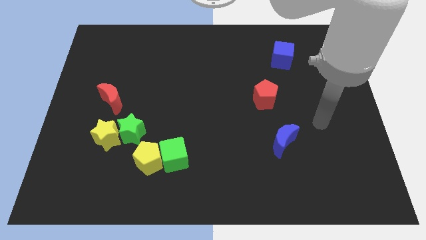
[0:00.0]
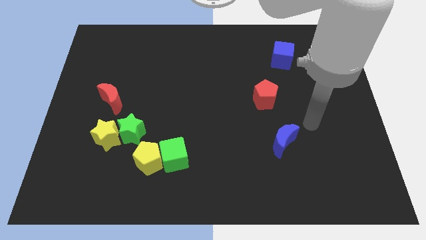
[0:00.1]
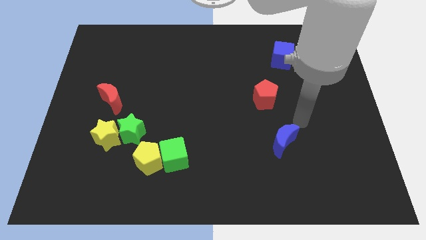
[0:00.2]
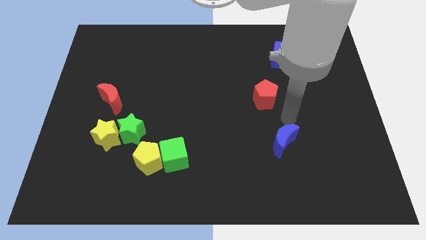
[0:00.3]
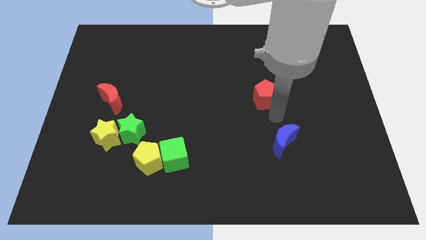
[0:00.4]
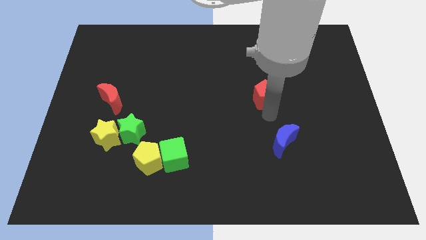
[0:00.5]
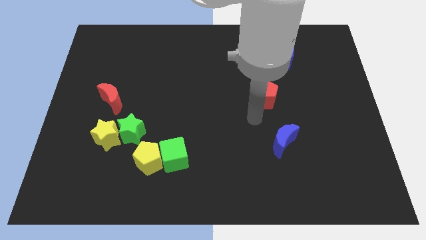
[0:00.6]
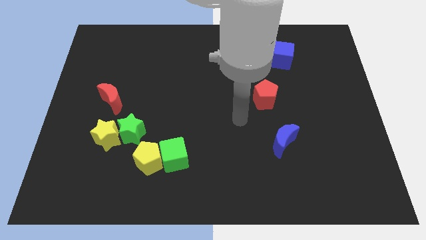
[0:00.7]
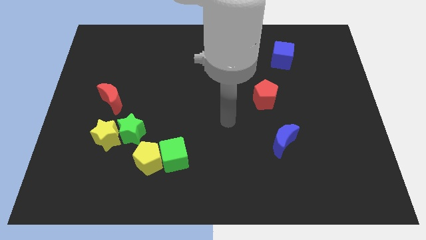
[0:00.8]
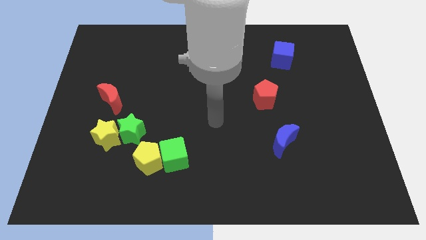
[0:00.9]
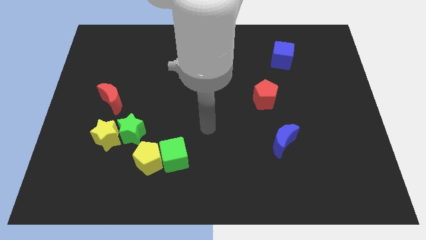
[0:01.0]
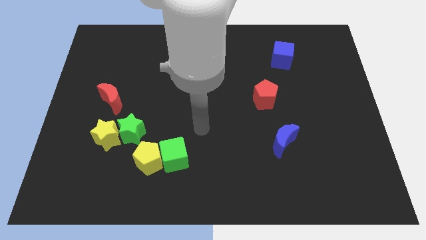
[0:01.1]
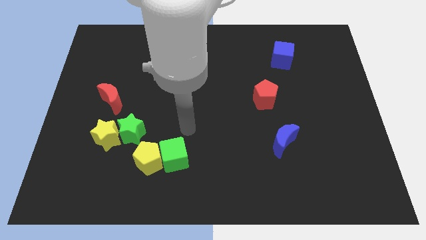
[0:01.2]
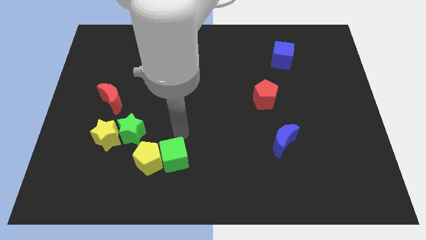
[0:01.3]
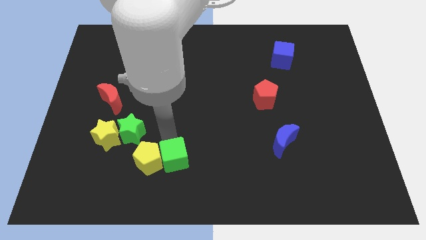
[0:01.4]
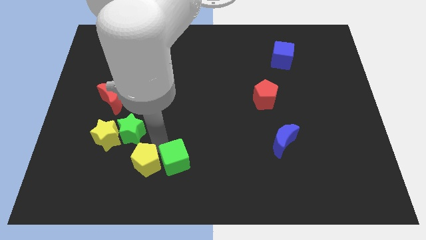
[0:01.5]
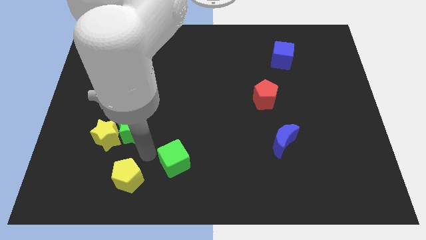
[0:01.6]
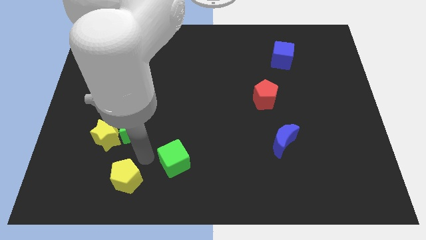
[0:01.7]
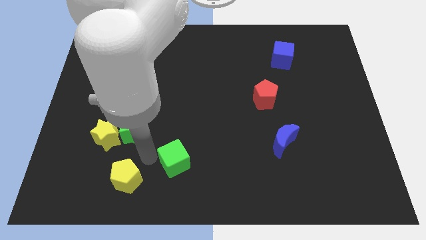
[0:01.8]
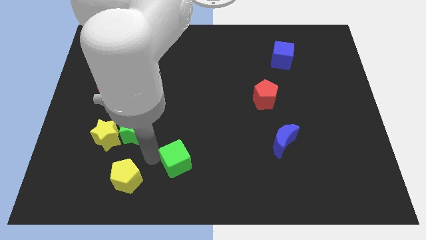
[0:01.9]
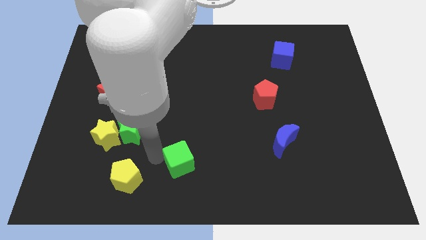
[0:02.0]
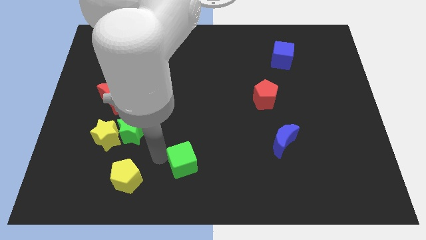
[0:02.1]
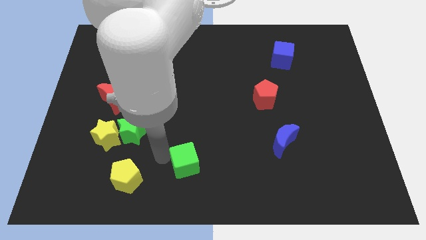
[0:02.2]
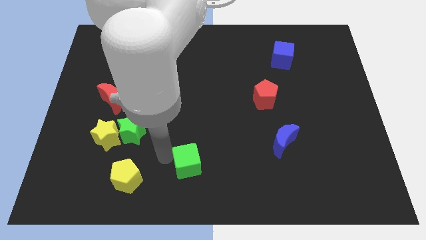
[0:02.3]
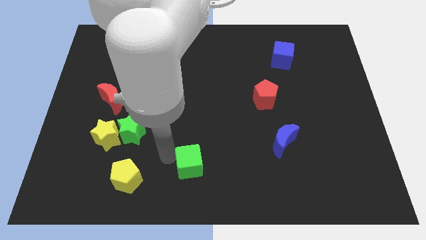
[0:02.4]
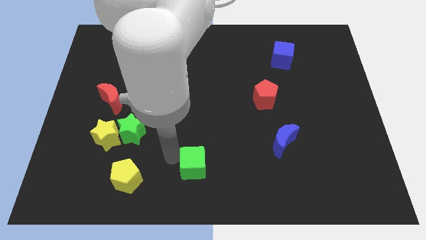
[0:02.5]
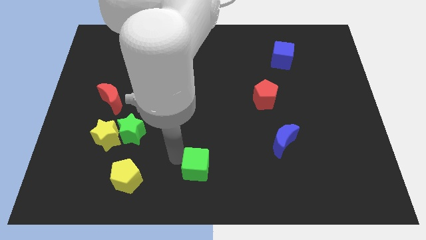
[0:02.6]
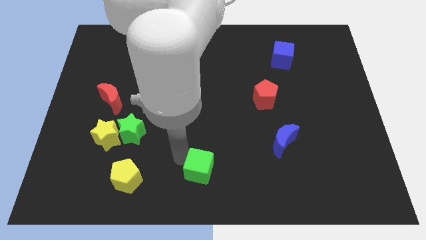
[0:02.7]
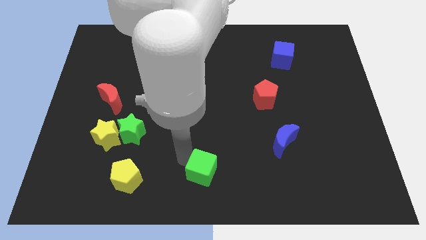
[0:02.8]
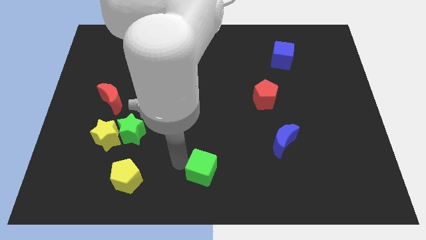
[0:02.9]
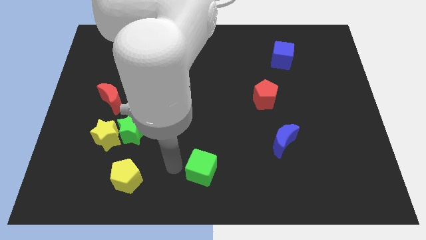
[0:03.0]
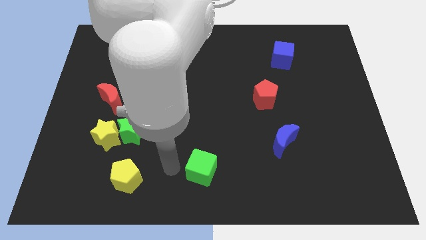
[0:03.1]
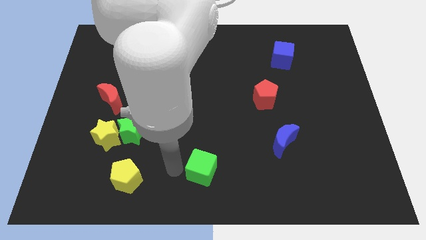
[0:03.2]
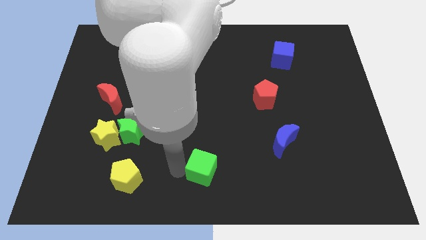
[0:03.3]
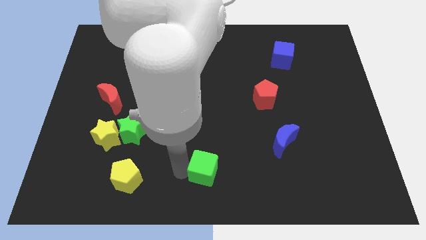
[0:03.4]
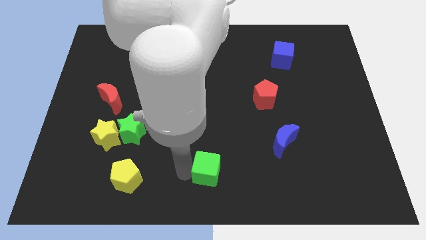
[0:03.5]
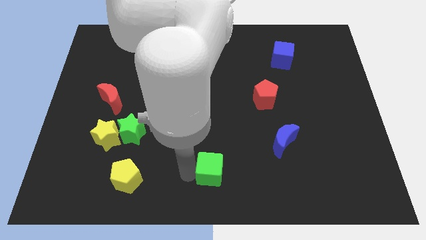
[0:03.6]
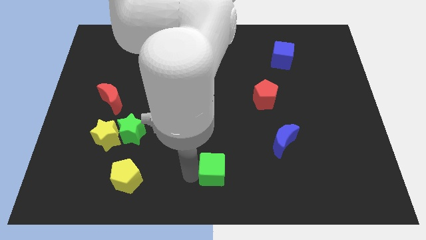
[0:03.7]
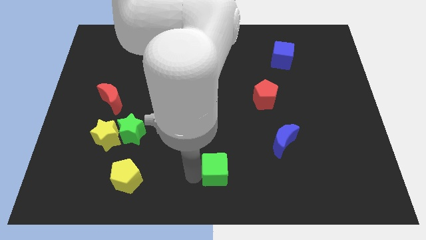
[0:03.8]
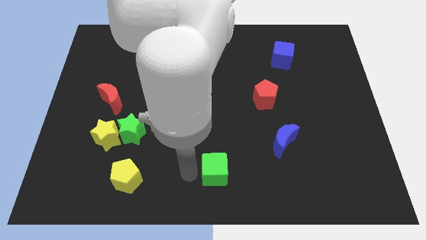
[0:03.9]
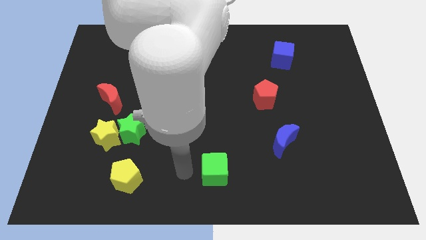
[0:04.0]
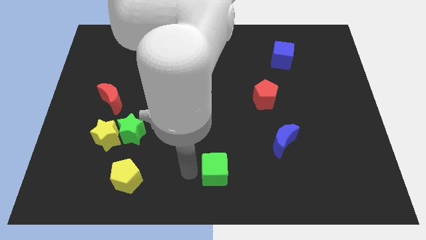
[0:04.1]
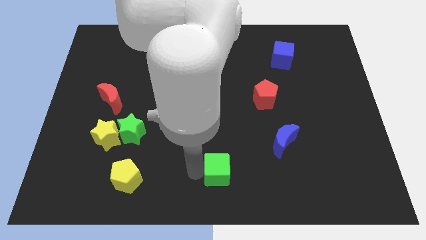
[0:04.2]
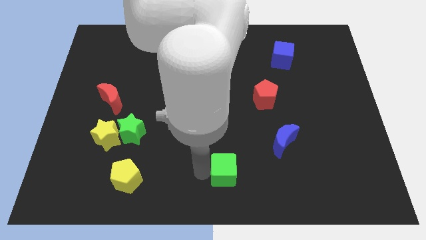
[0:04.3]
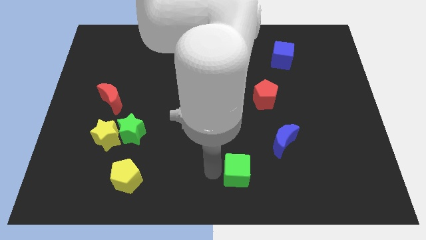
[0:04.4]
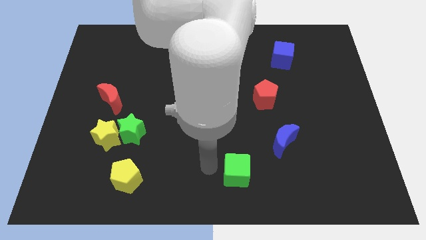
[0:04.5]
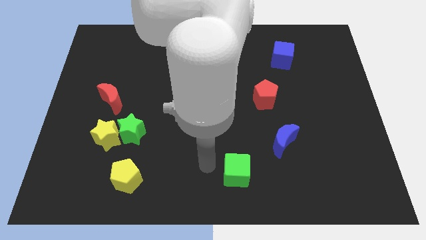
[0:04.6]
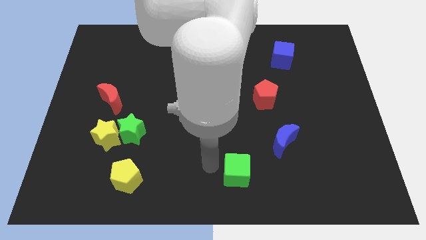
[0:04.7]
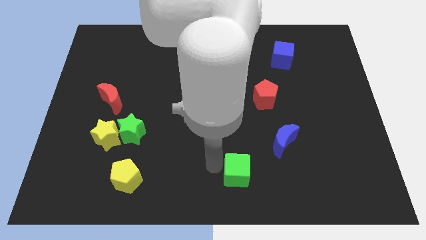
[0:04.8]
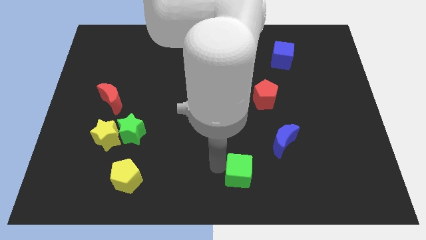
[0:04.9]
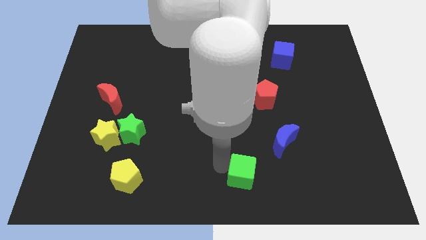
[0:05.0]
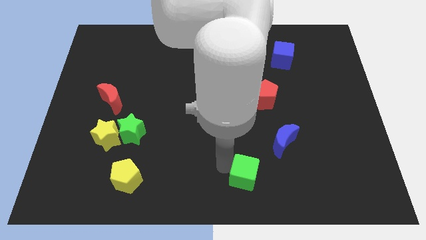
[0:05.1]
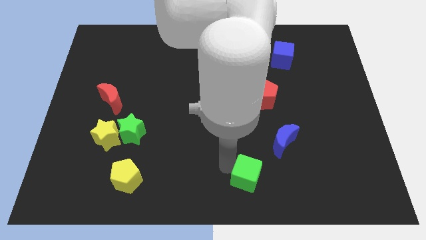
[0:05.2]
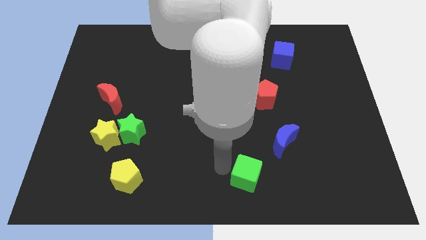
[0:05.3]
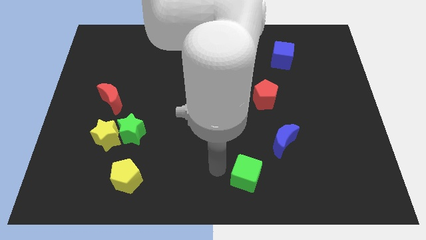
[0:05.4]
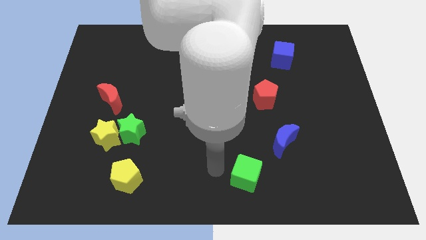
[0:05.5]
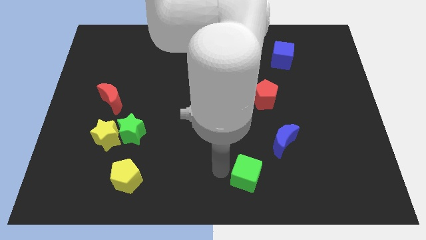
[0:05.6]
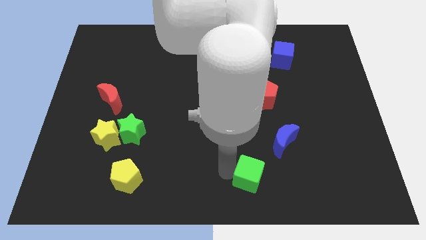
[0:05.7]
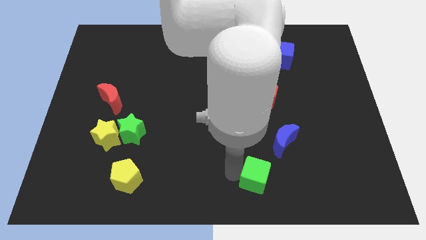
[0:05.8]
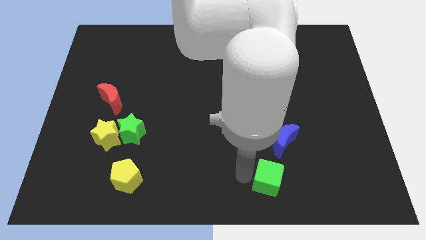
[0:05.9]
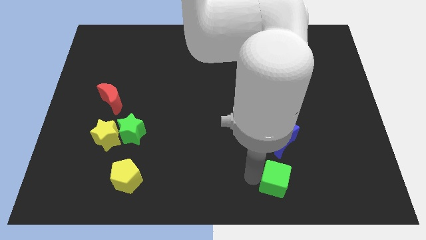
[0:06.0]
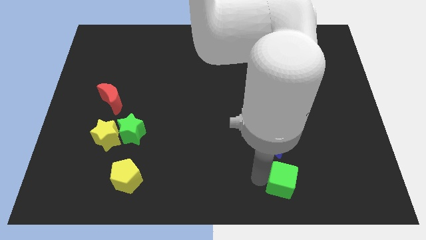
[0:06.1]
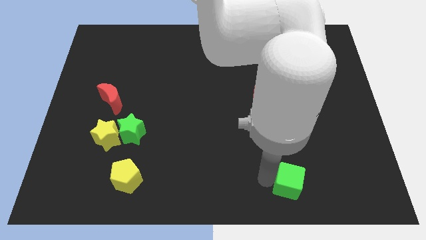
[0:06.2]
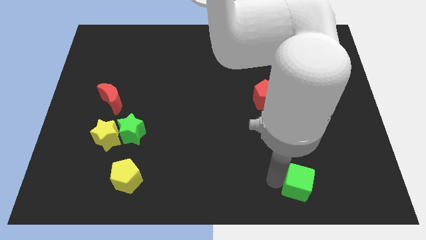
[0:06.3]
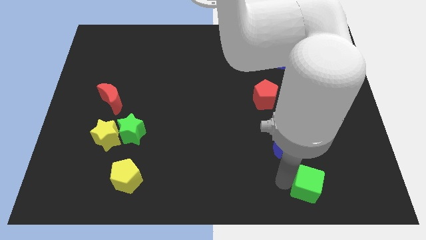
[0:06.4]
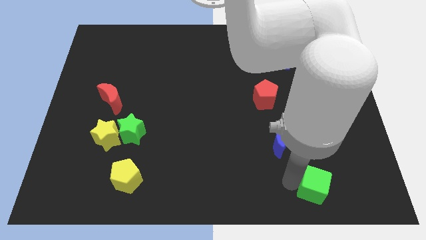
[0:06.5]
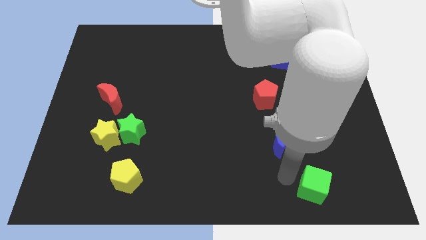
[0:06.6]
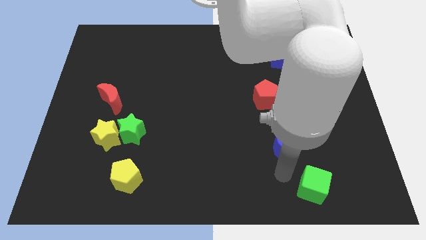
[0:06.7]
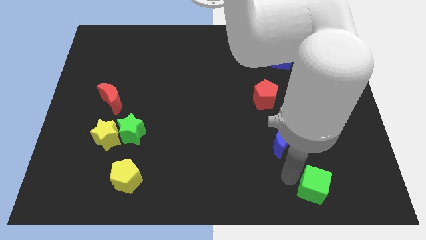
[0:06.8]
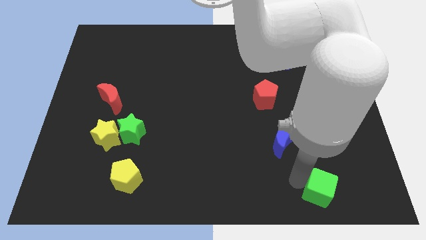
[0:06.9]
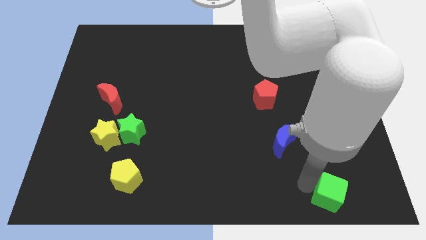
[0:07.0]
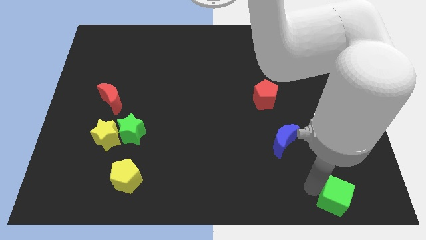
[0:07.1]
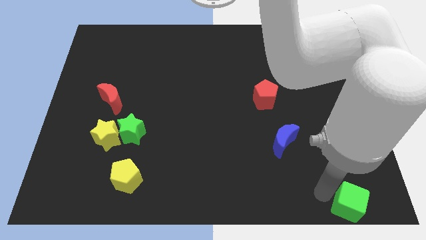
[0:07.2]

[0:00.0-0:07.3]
push the green cube to the bottom right

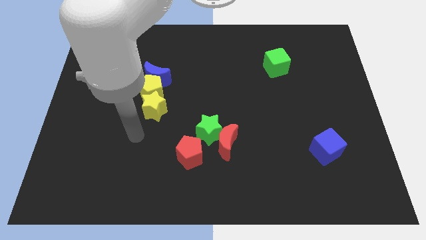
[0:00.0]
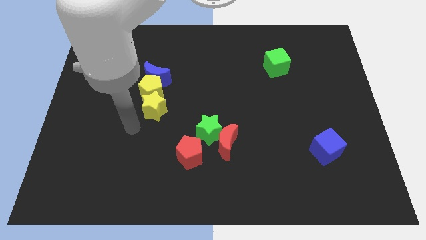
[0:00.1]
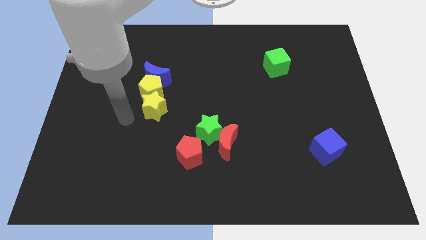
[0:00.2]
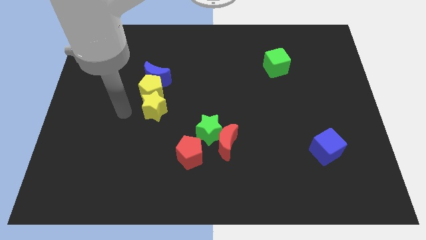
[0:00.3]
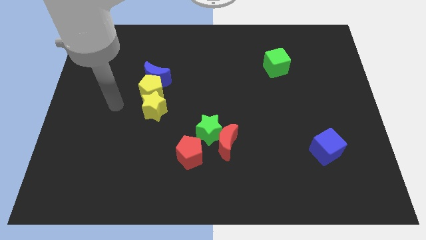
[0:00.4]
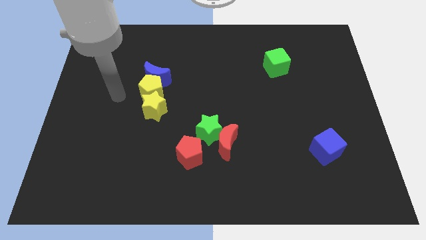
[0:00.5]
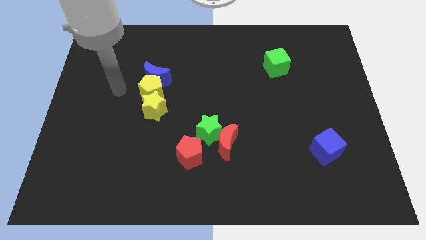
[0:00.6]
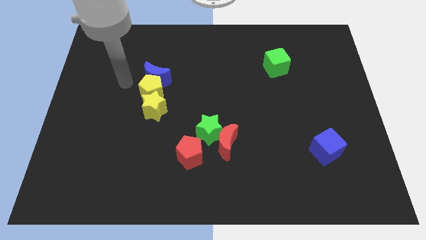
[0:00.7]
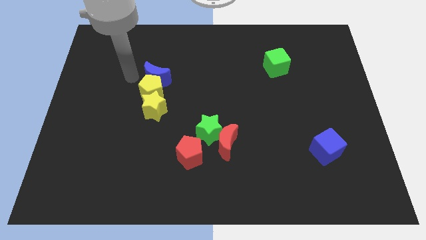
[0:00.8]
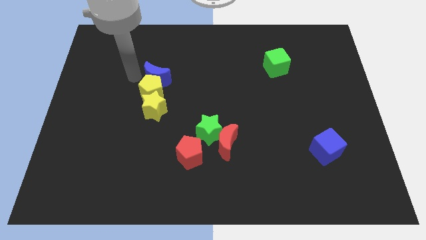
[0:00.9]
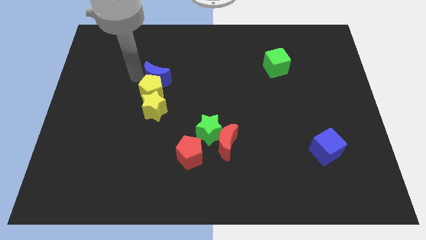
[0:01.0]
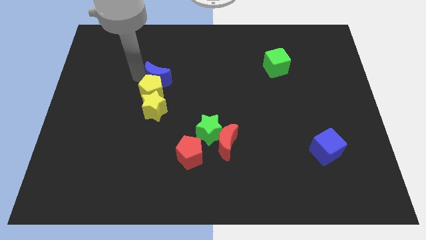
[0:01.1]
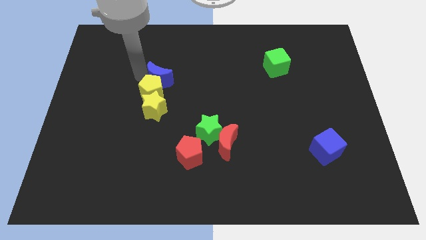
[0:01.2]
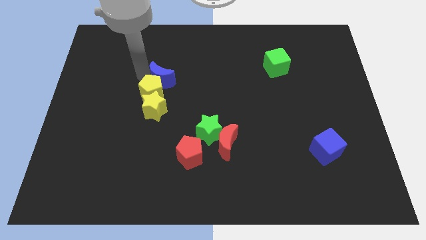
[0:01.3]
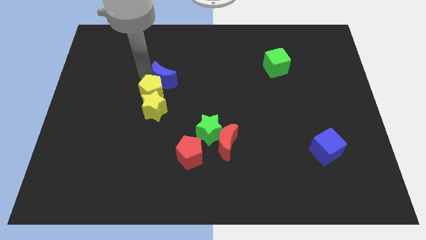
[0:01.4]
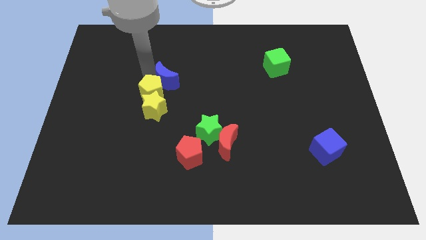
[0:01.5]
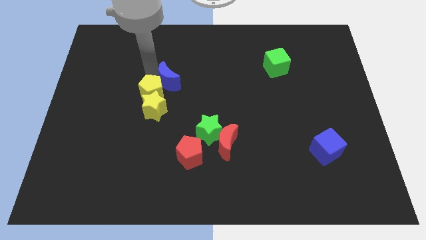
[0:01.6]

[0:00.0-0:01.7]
put the blue moon to the middle of the board
